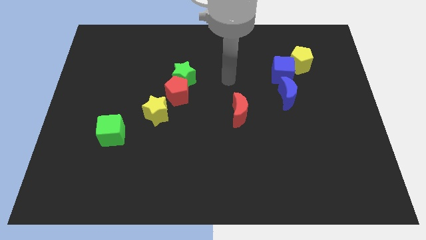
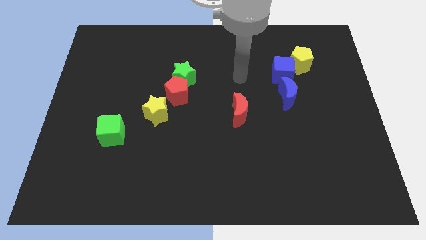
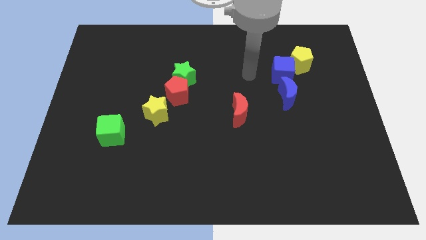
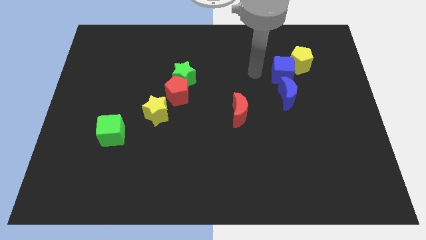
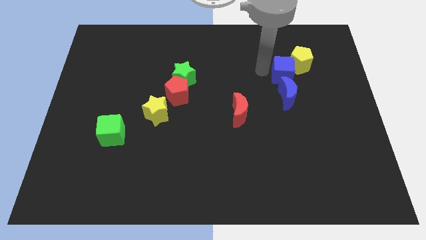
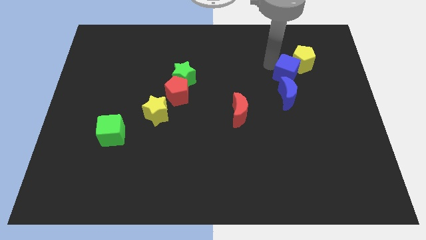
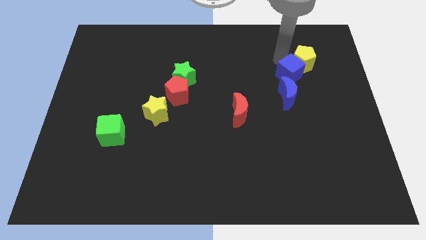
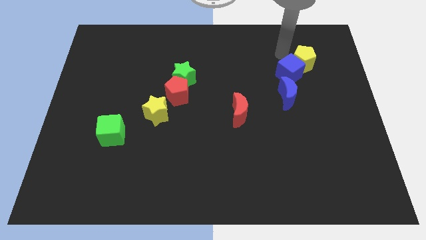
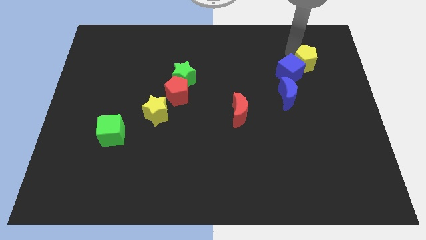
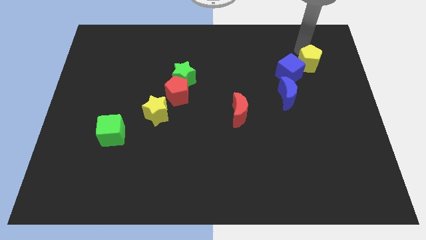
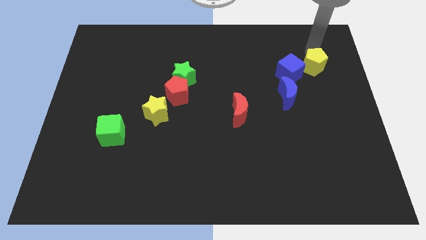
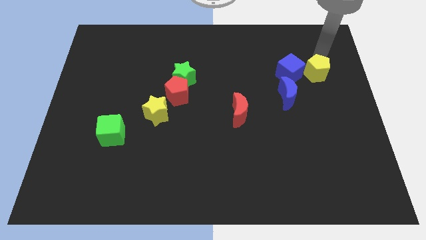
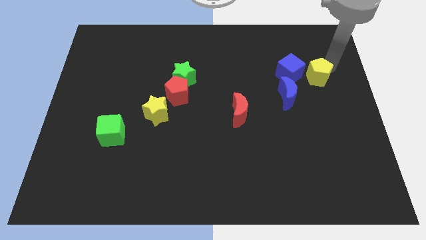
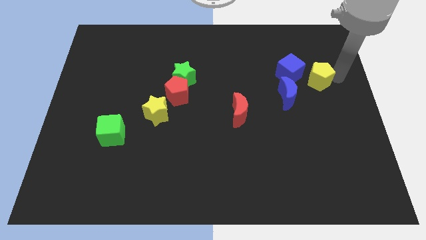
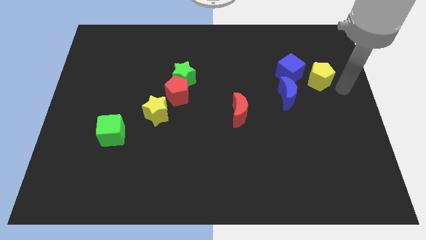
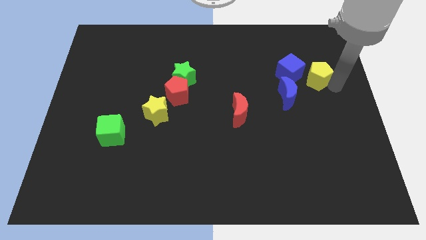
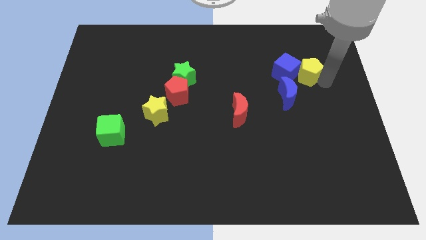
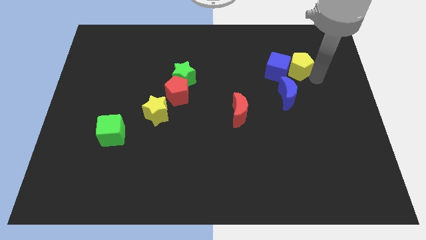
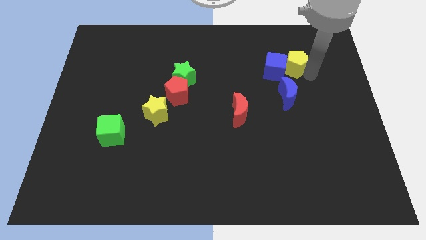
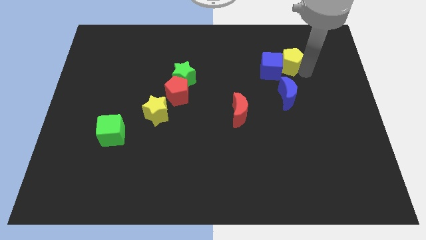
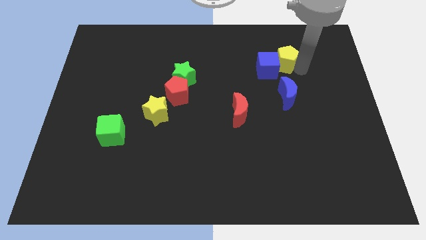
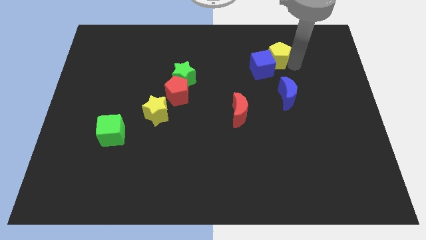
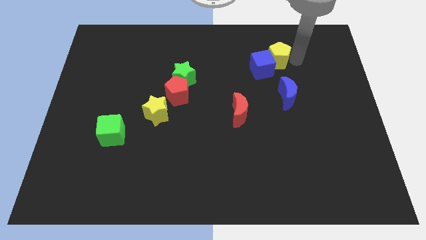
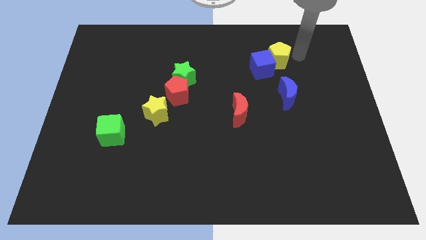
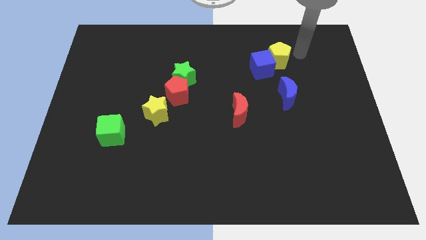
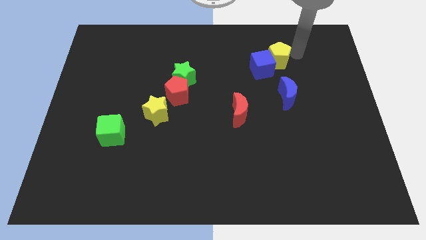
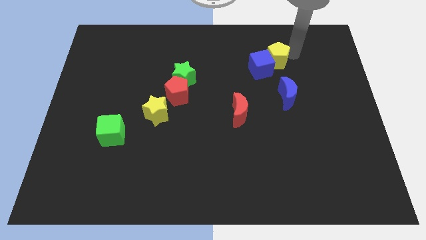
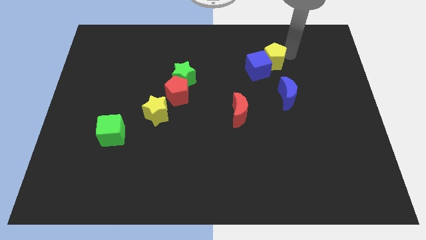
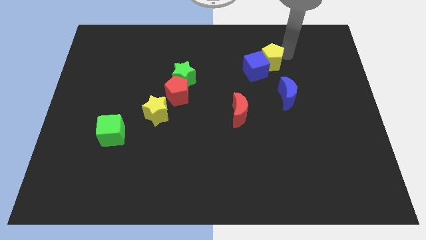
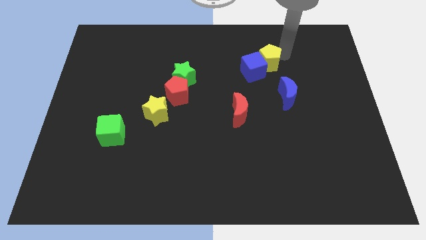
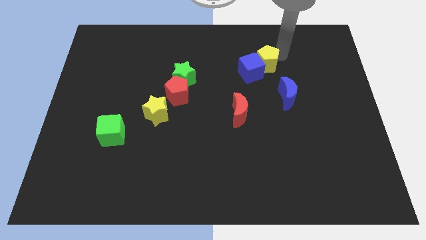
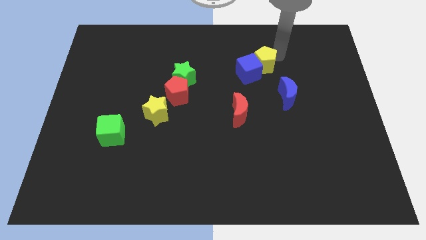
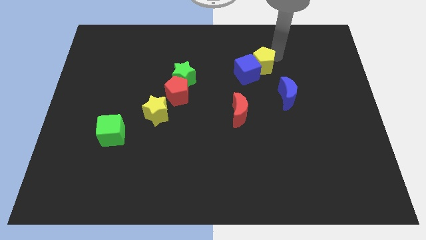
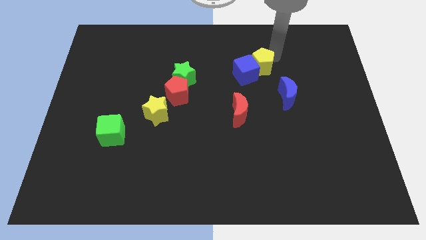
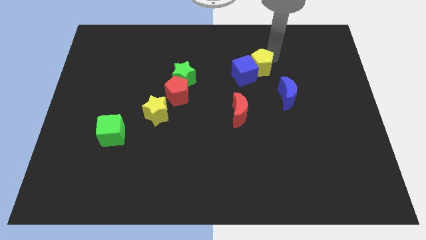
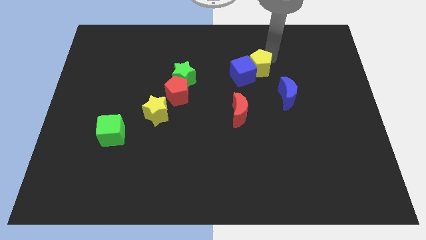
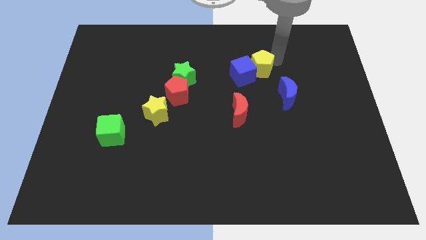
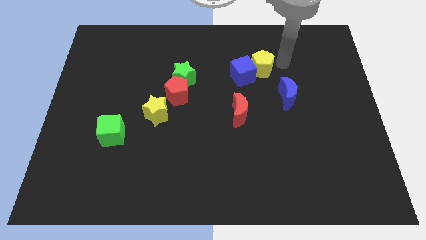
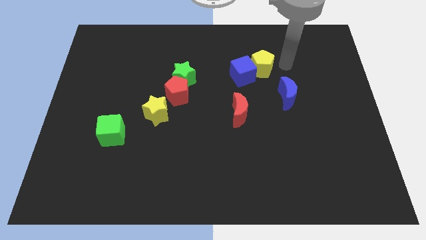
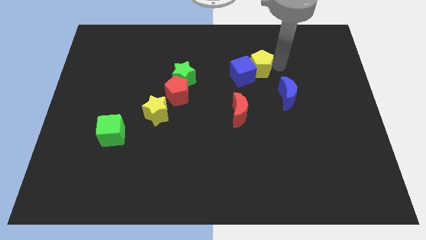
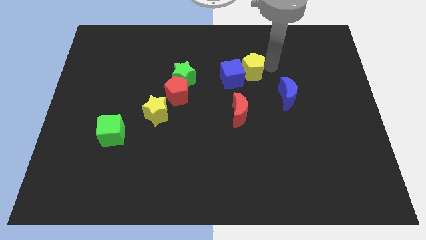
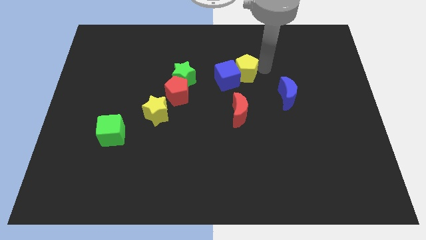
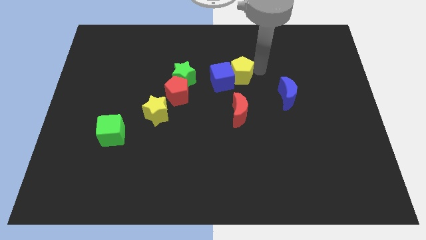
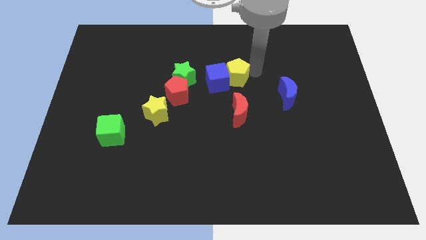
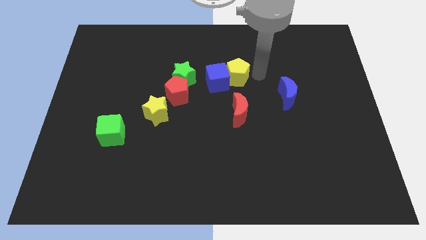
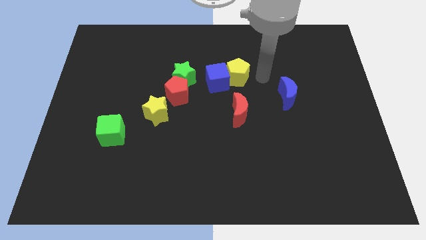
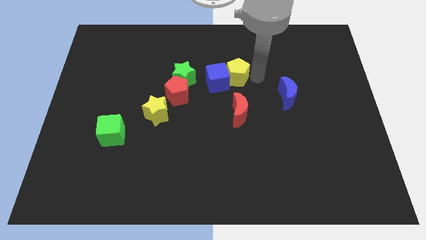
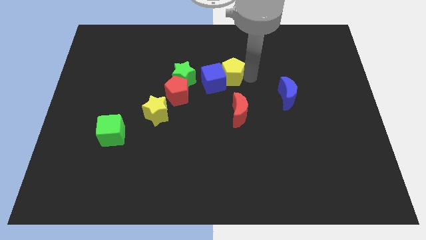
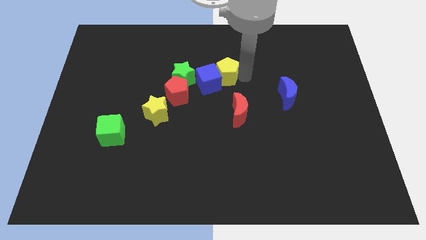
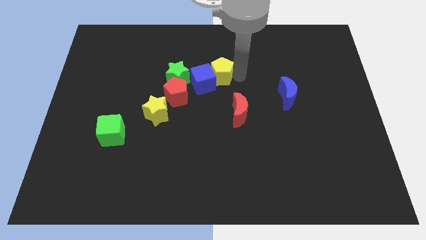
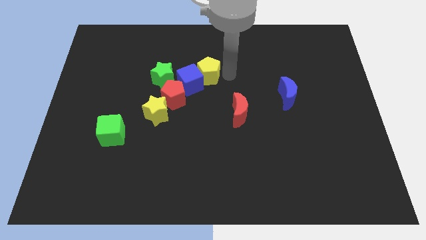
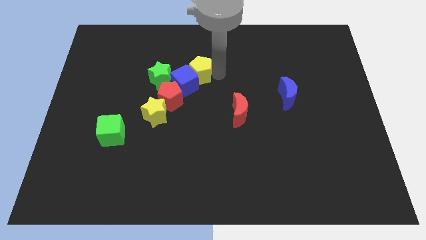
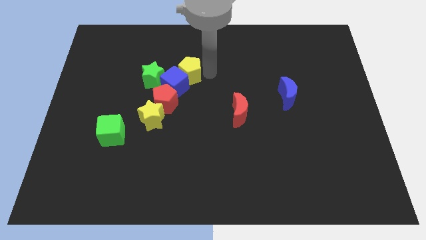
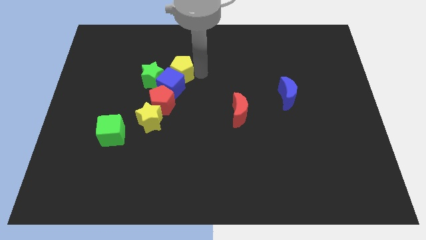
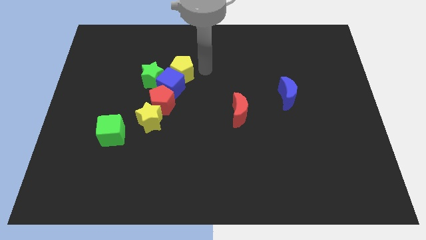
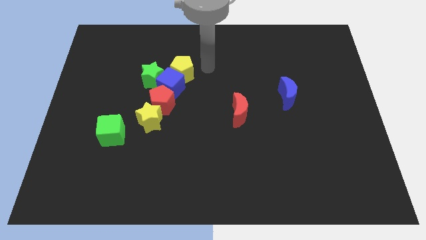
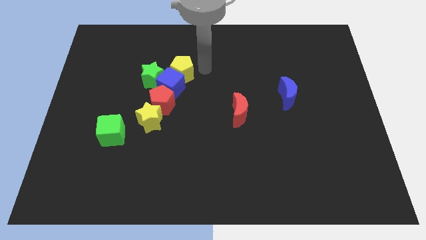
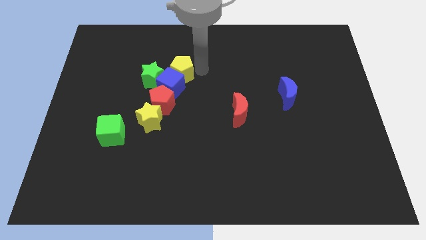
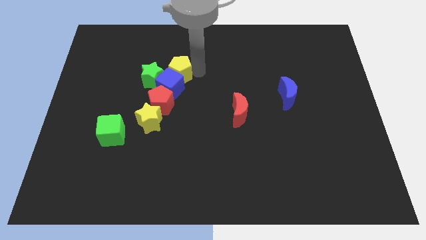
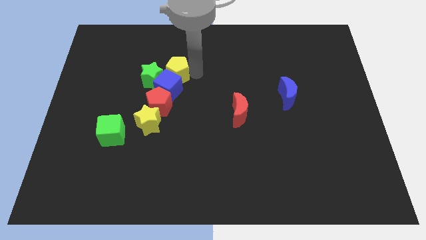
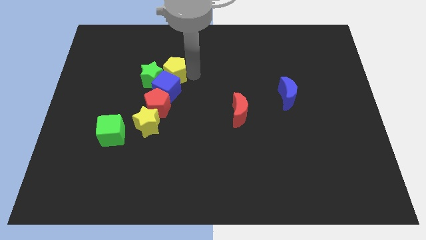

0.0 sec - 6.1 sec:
move the yellow pentagon towards the green star

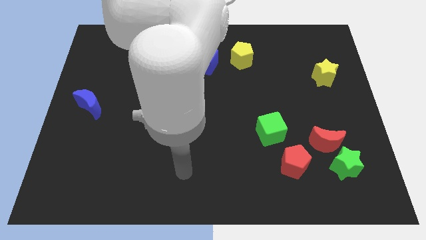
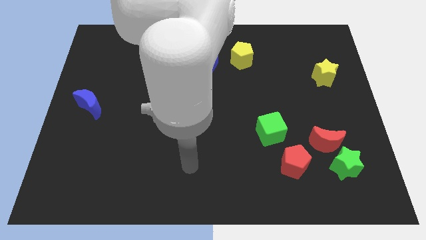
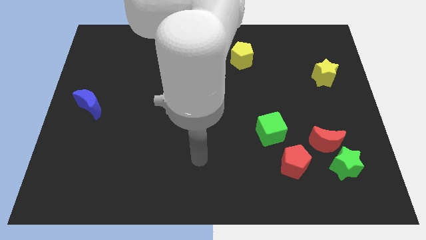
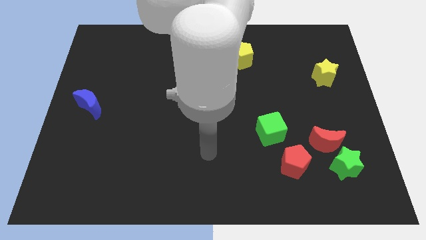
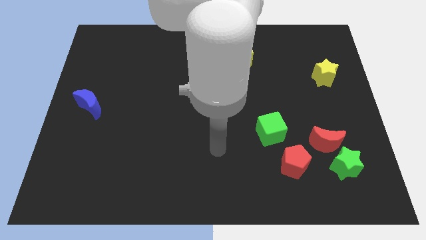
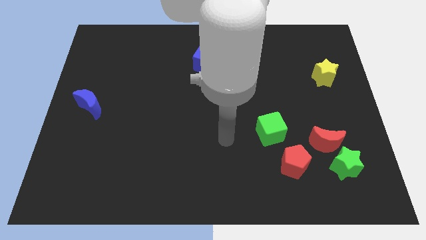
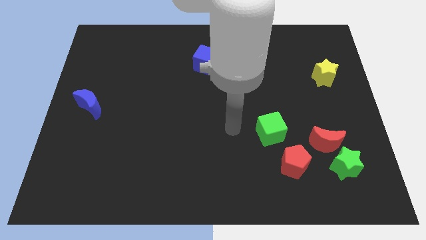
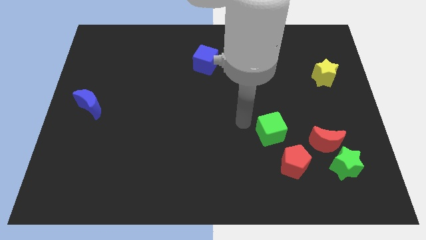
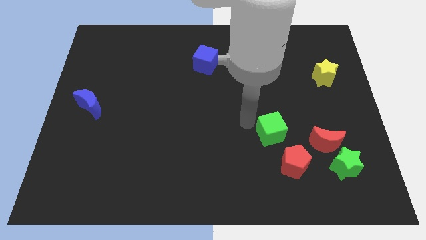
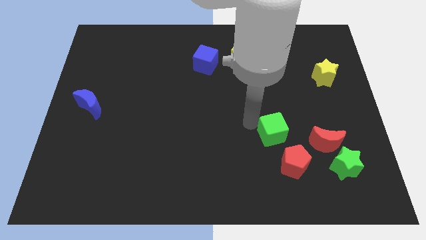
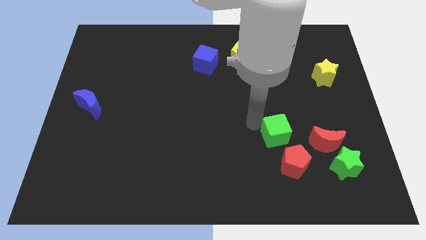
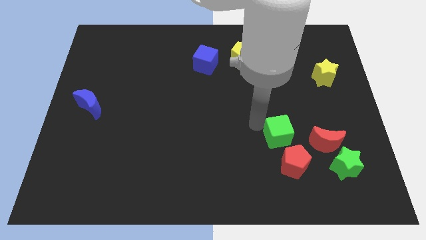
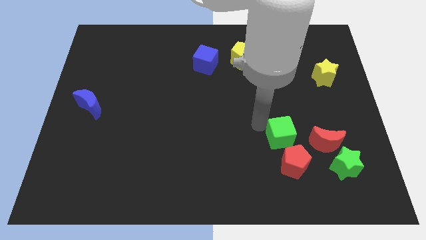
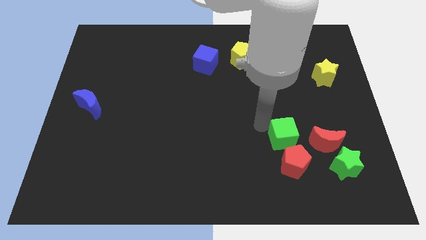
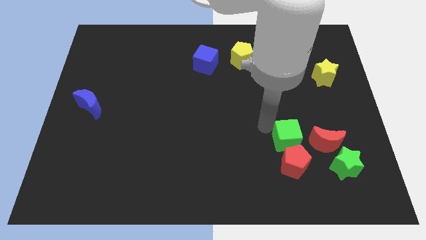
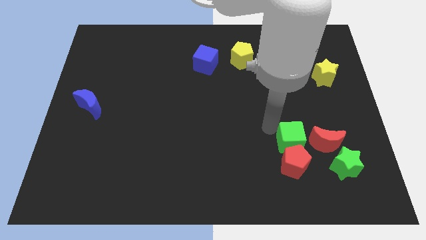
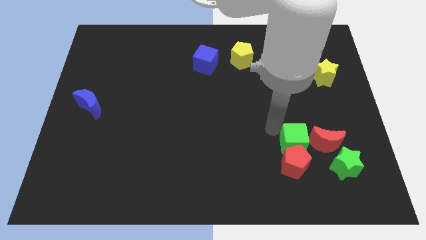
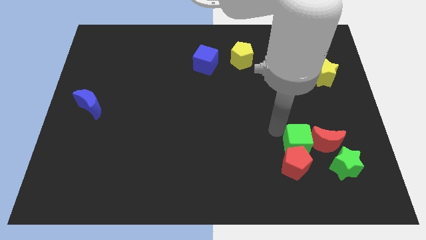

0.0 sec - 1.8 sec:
push the green cube to the red moon
